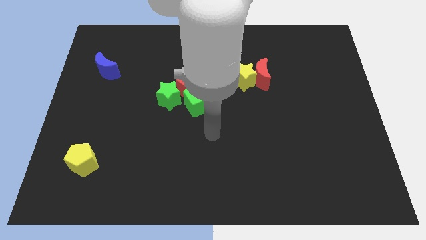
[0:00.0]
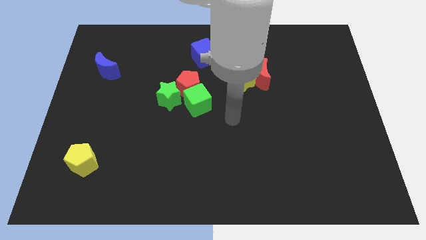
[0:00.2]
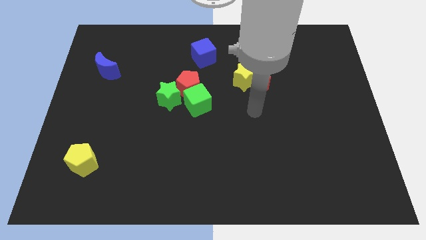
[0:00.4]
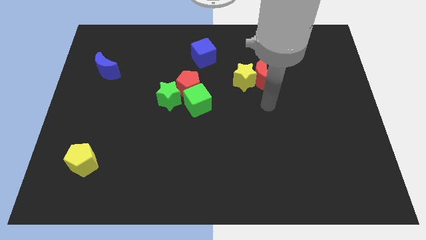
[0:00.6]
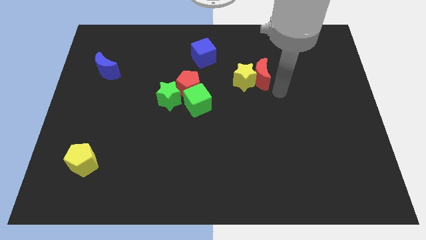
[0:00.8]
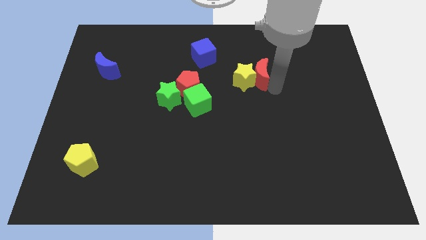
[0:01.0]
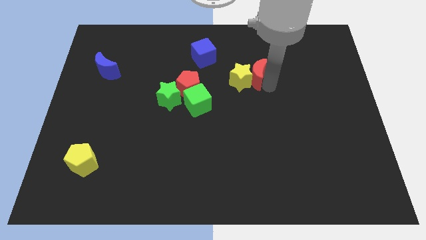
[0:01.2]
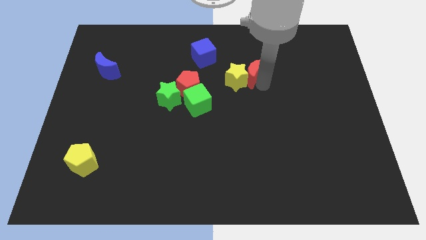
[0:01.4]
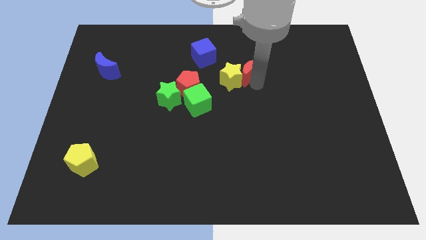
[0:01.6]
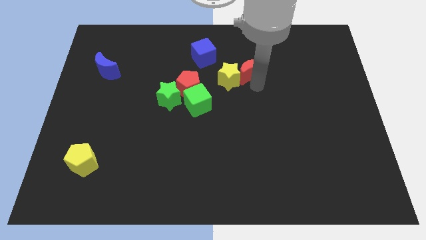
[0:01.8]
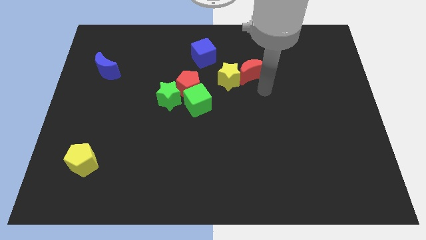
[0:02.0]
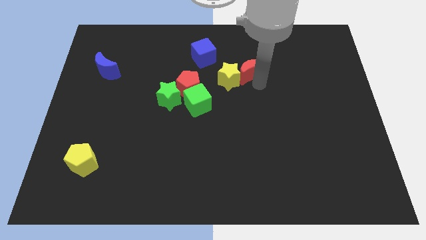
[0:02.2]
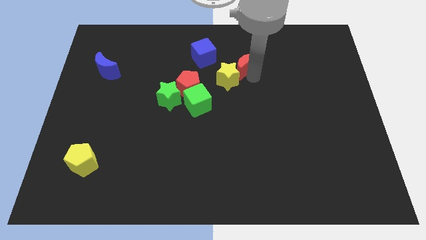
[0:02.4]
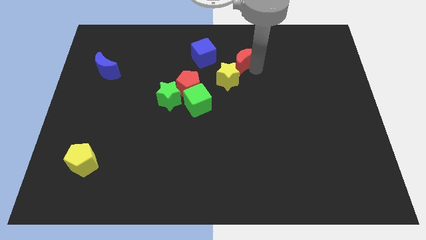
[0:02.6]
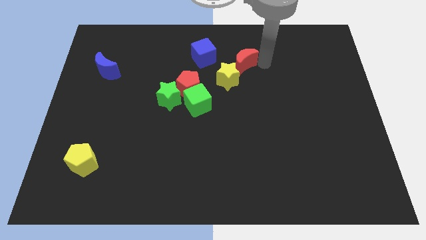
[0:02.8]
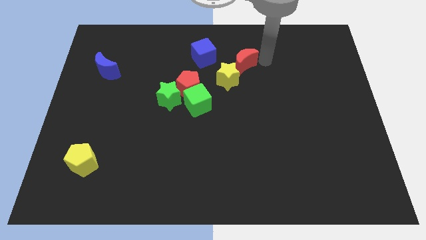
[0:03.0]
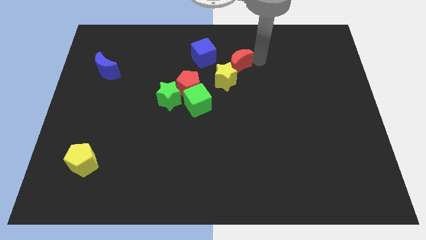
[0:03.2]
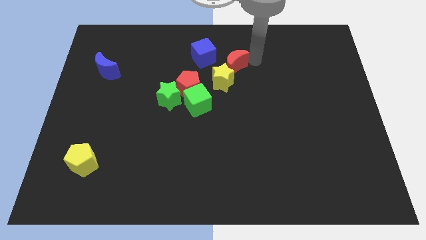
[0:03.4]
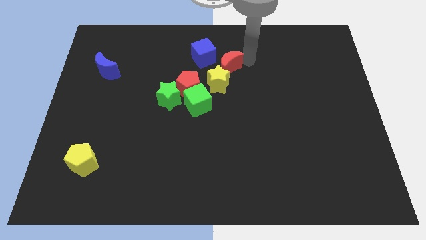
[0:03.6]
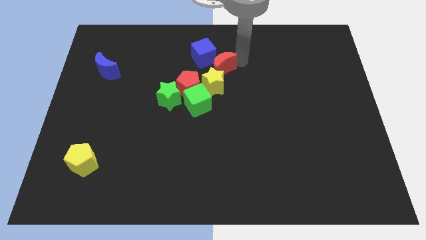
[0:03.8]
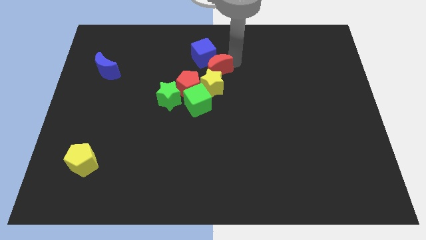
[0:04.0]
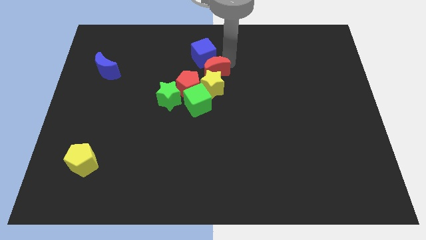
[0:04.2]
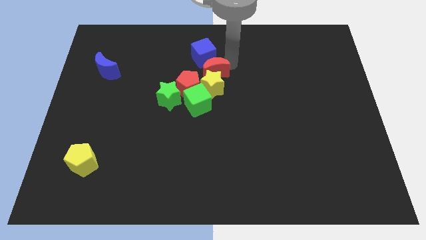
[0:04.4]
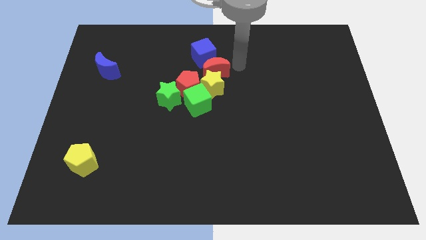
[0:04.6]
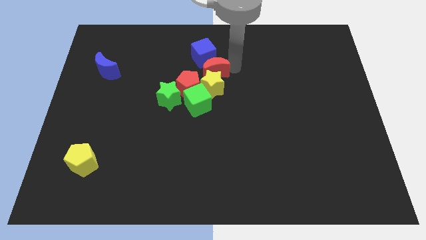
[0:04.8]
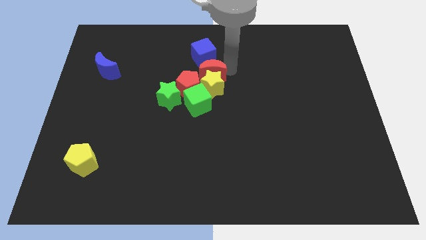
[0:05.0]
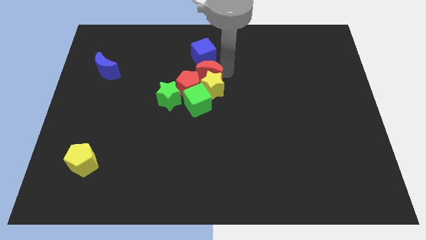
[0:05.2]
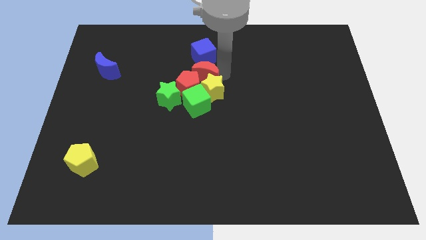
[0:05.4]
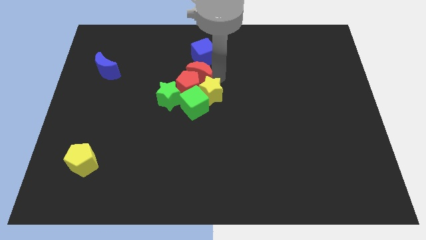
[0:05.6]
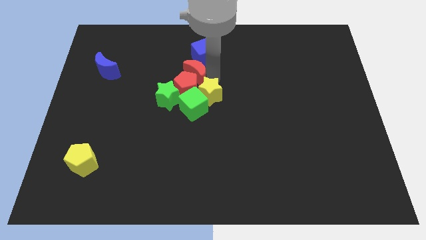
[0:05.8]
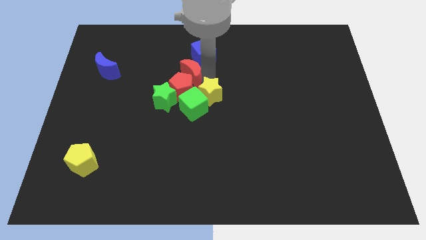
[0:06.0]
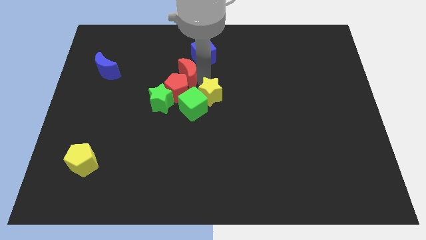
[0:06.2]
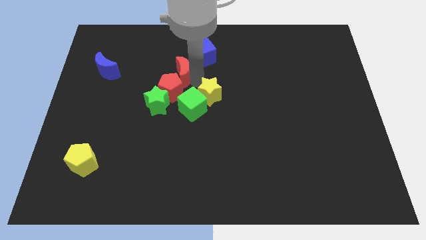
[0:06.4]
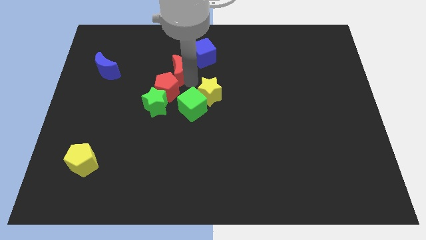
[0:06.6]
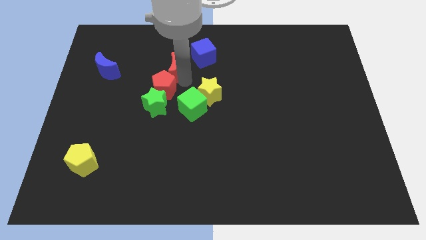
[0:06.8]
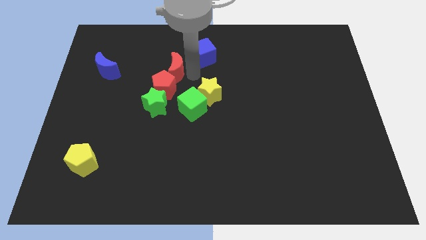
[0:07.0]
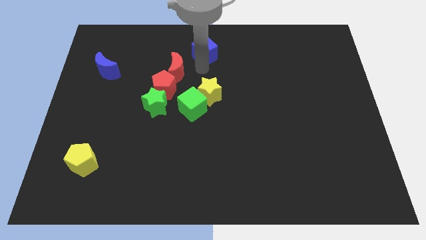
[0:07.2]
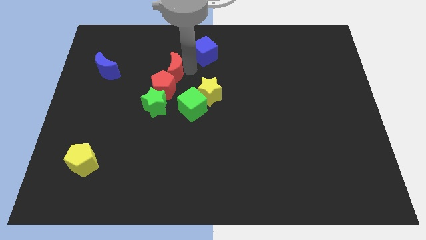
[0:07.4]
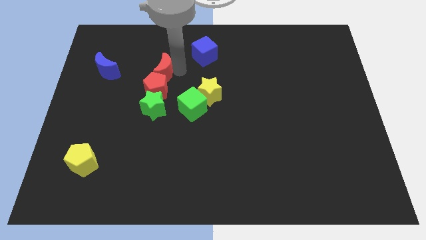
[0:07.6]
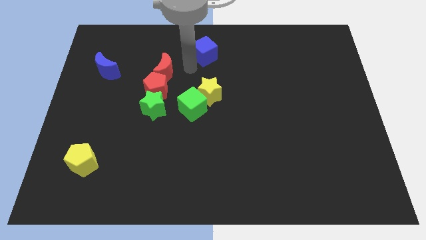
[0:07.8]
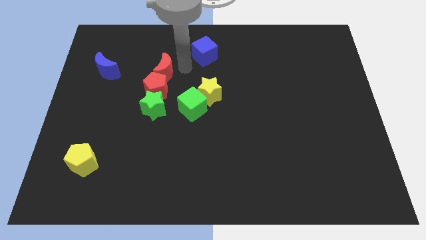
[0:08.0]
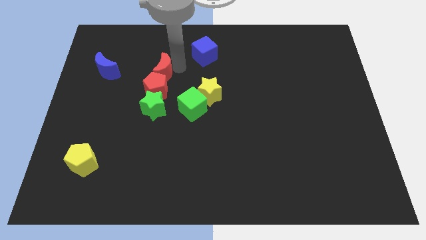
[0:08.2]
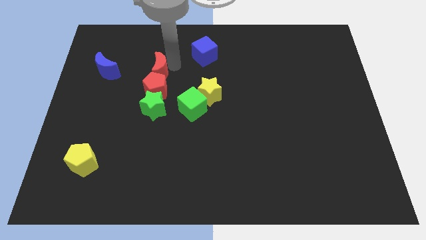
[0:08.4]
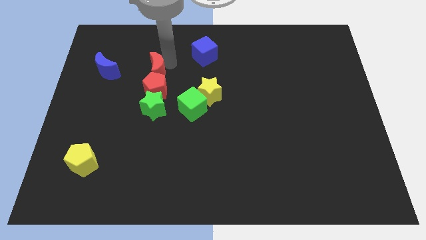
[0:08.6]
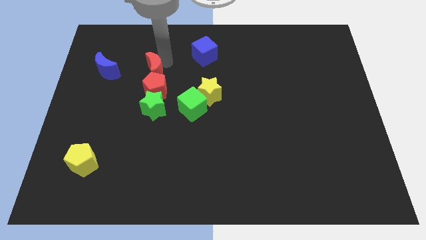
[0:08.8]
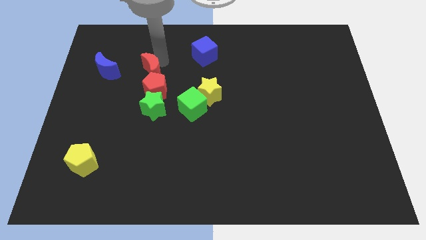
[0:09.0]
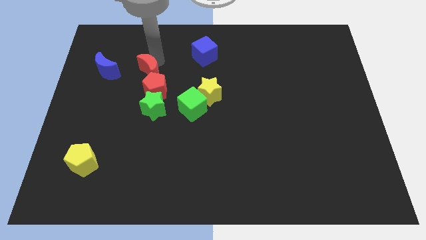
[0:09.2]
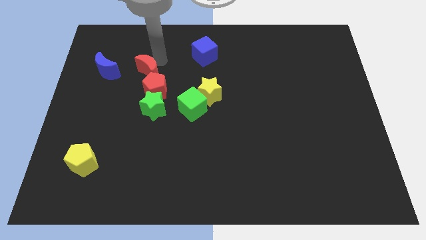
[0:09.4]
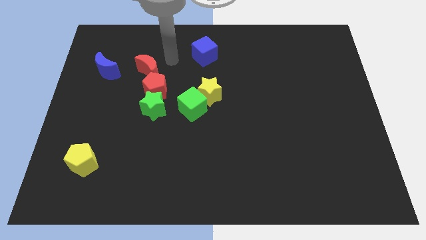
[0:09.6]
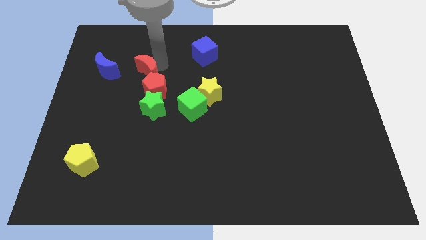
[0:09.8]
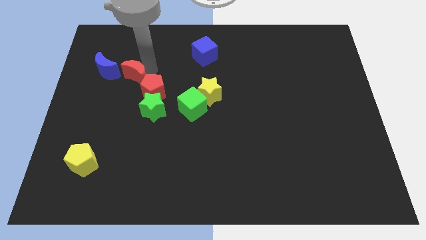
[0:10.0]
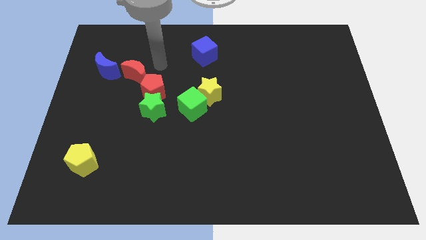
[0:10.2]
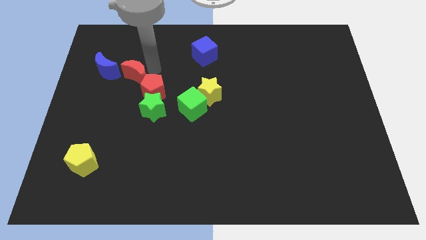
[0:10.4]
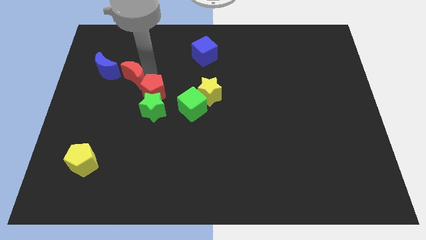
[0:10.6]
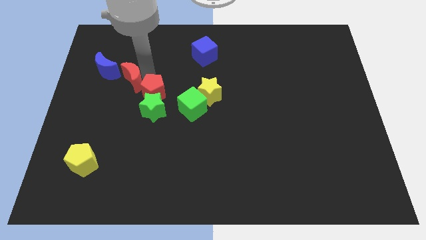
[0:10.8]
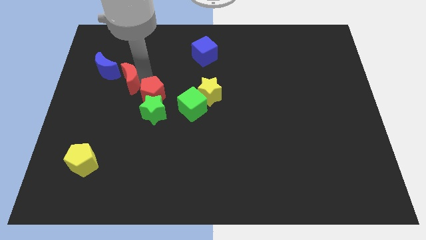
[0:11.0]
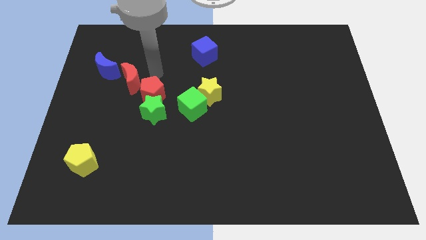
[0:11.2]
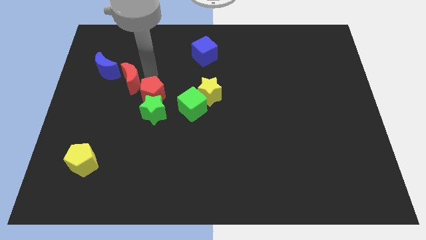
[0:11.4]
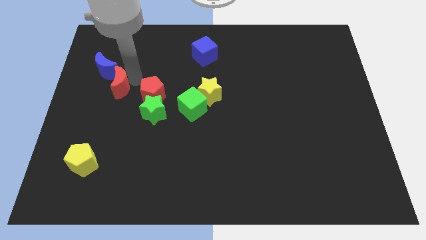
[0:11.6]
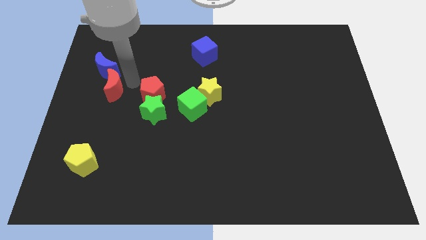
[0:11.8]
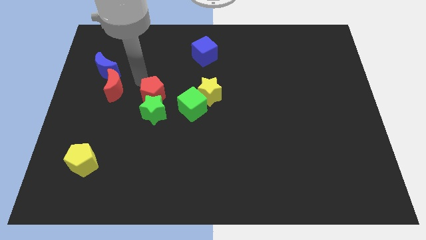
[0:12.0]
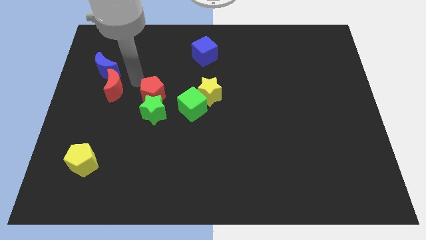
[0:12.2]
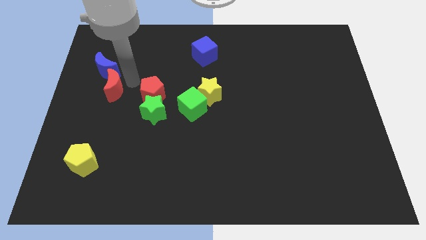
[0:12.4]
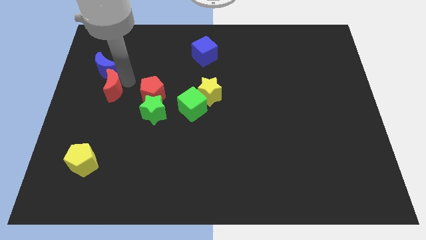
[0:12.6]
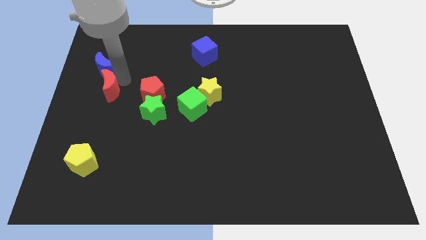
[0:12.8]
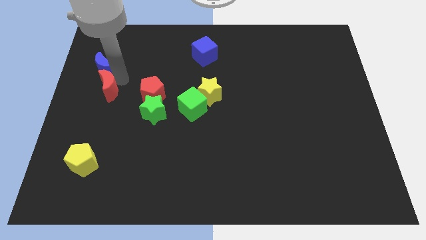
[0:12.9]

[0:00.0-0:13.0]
push the red moon to the center left
